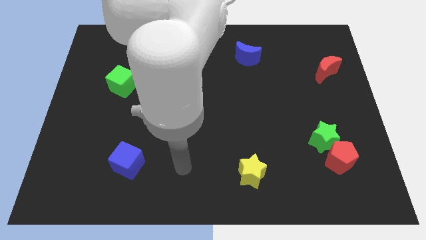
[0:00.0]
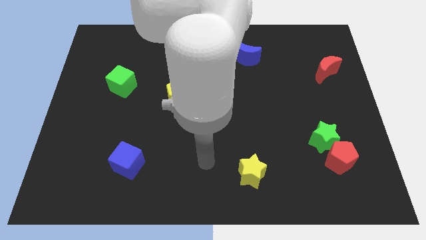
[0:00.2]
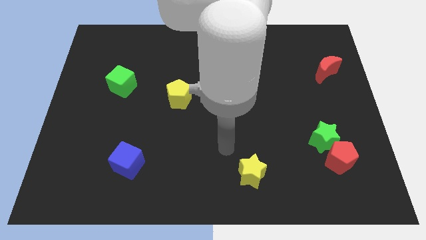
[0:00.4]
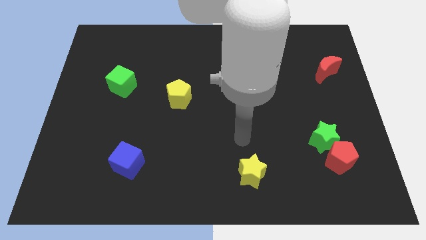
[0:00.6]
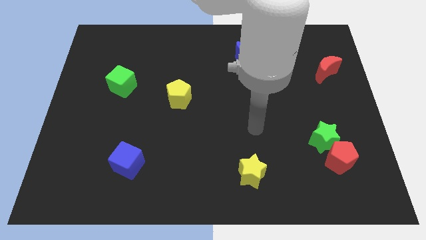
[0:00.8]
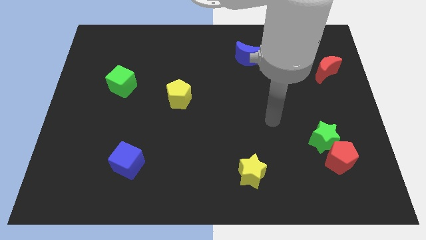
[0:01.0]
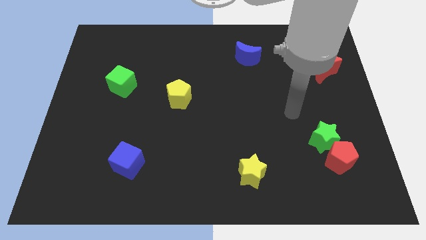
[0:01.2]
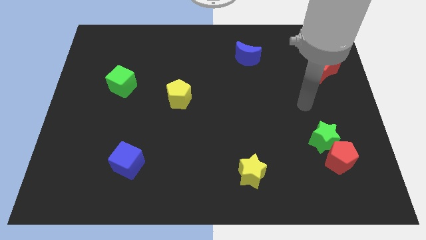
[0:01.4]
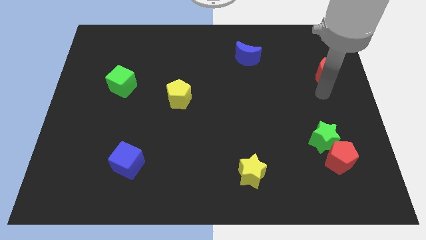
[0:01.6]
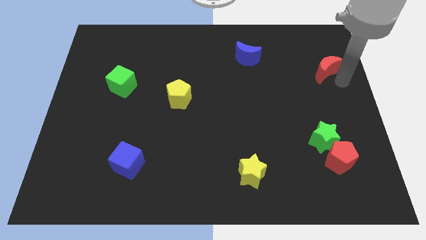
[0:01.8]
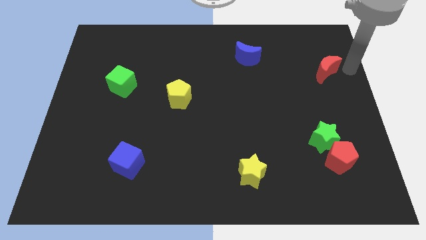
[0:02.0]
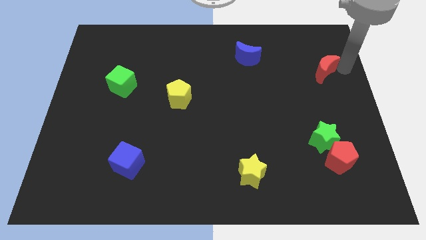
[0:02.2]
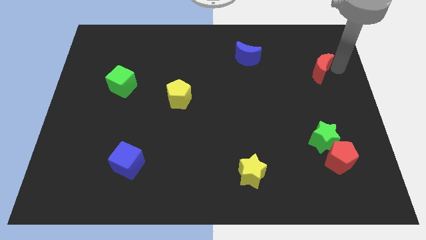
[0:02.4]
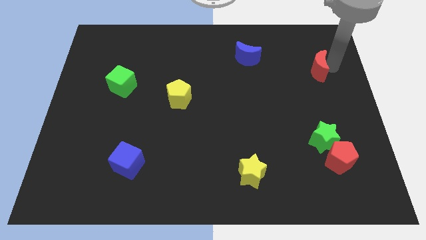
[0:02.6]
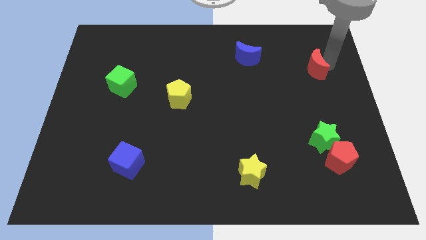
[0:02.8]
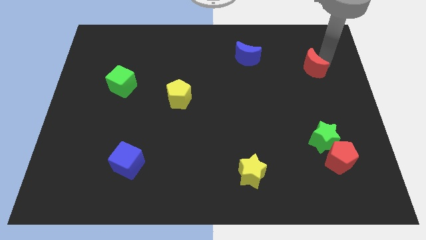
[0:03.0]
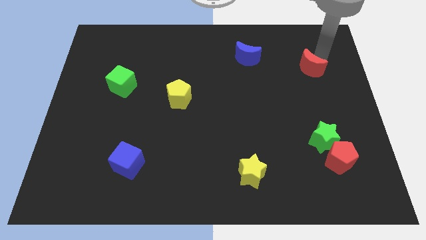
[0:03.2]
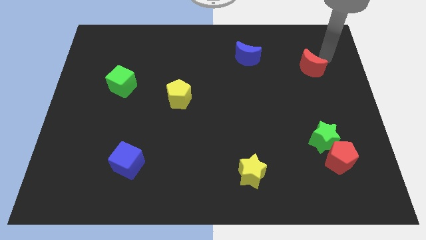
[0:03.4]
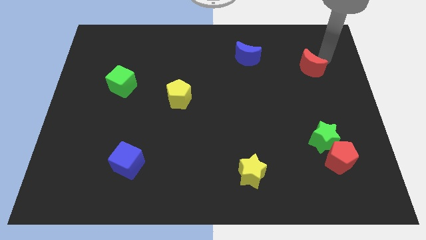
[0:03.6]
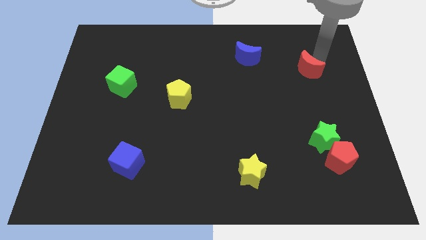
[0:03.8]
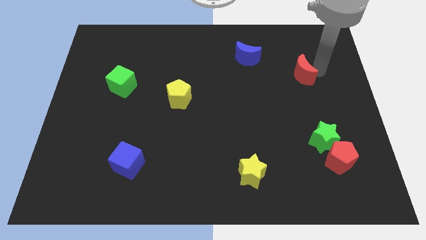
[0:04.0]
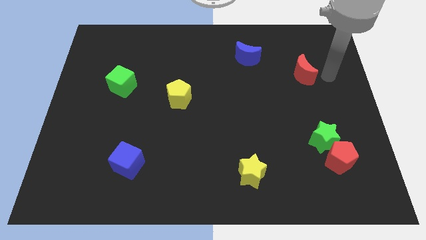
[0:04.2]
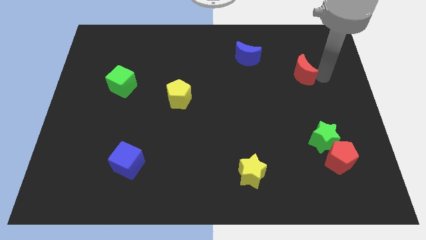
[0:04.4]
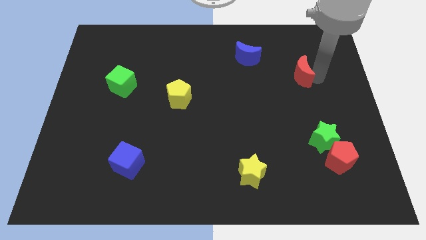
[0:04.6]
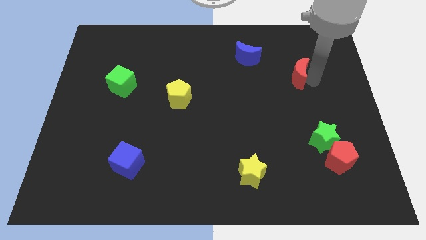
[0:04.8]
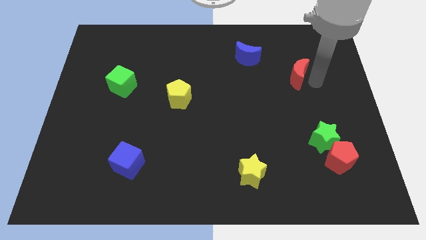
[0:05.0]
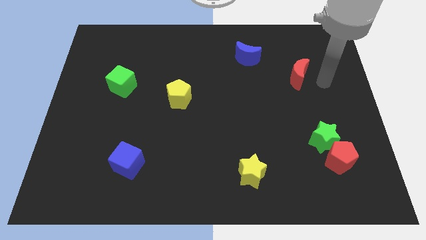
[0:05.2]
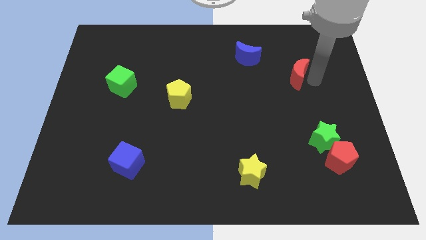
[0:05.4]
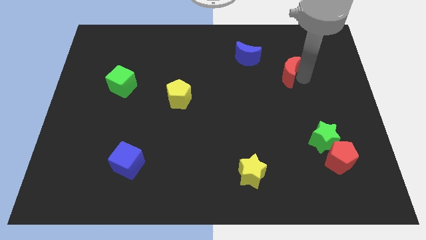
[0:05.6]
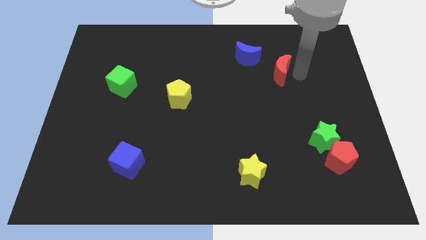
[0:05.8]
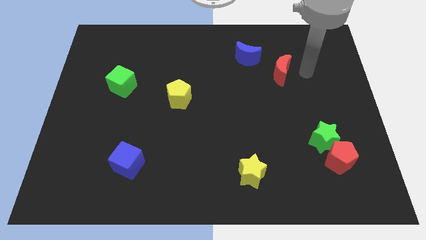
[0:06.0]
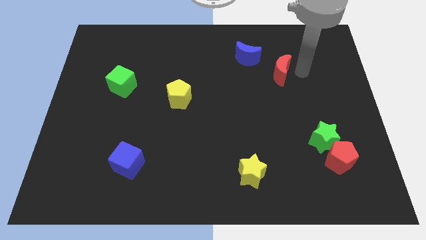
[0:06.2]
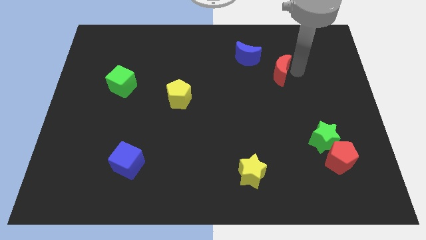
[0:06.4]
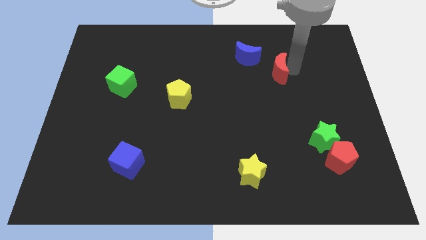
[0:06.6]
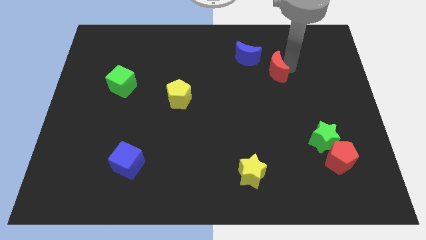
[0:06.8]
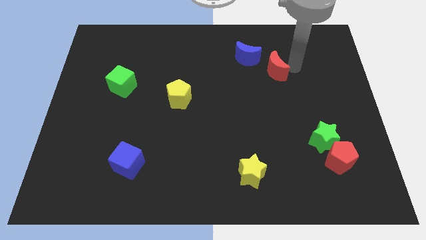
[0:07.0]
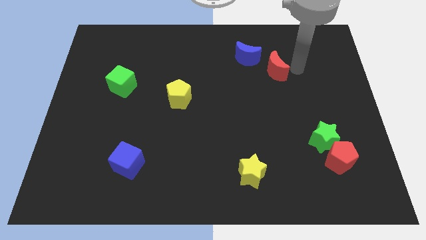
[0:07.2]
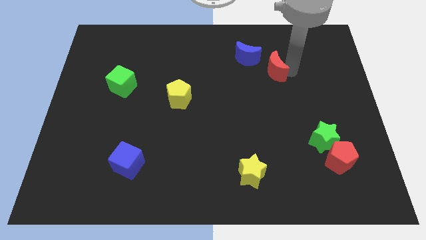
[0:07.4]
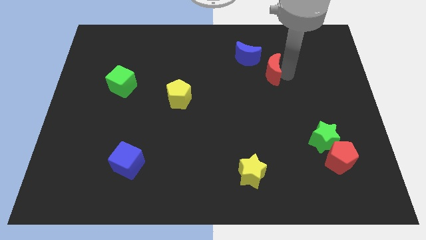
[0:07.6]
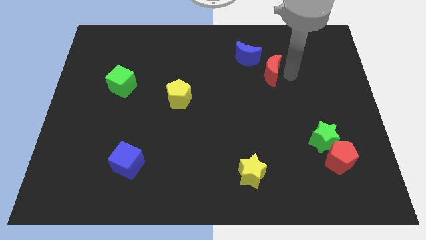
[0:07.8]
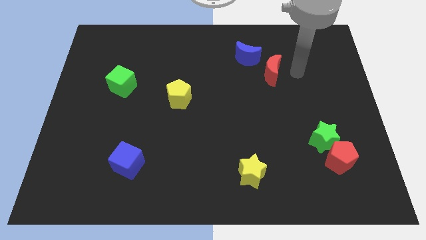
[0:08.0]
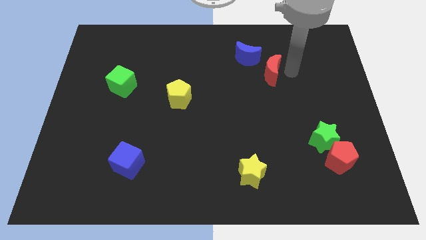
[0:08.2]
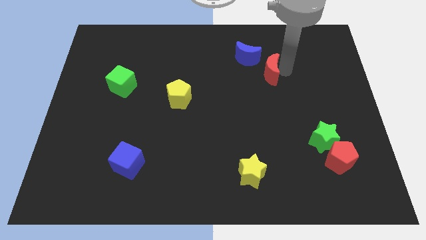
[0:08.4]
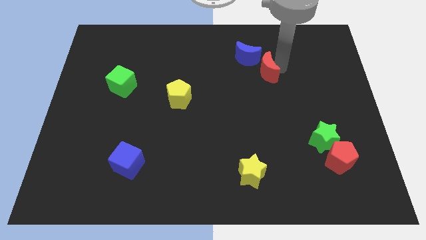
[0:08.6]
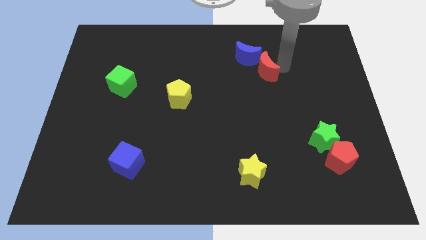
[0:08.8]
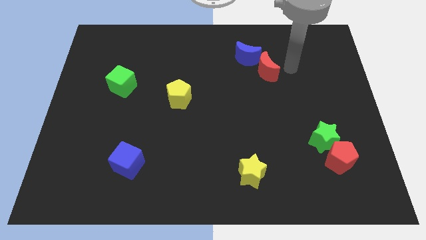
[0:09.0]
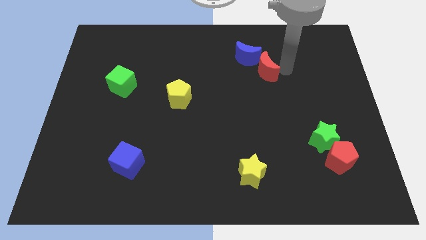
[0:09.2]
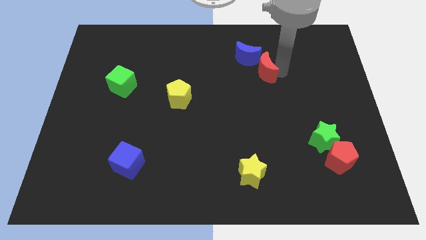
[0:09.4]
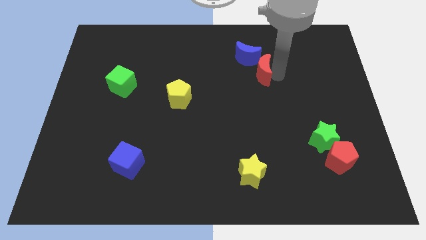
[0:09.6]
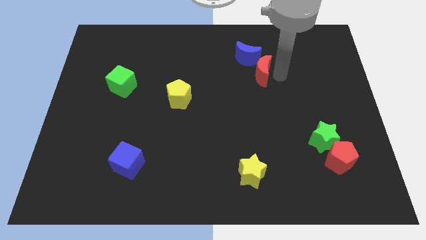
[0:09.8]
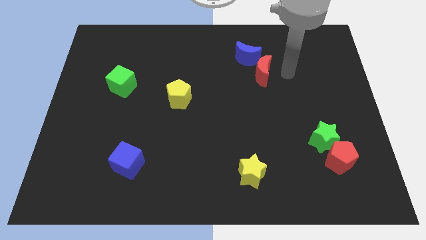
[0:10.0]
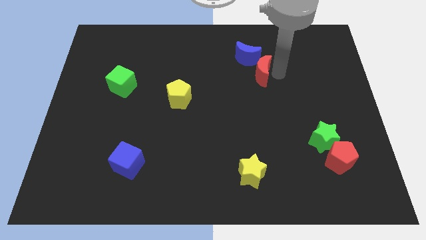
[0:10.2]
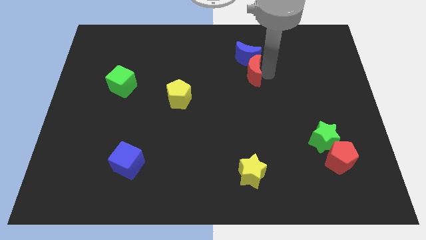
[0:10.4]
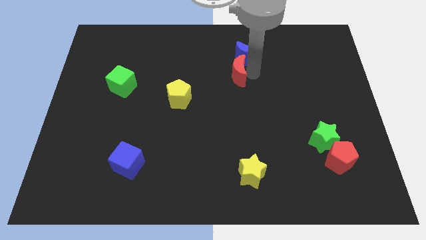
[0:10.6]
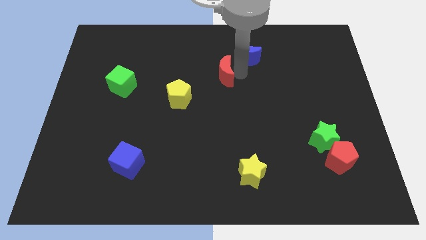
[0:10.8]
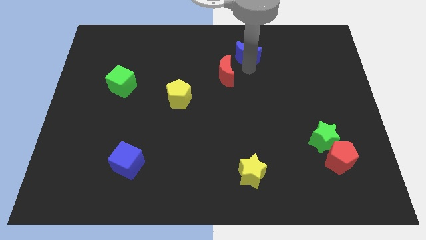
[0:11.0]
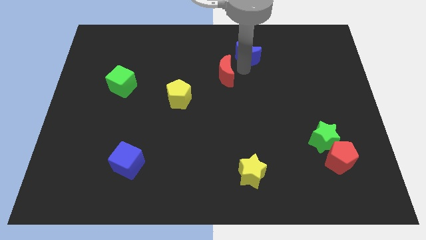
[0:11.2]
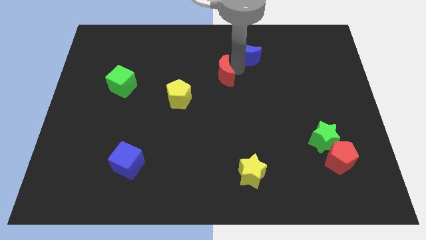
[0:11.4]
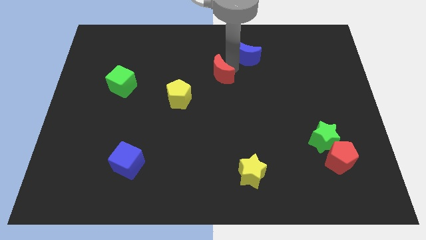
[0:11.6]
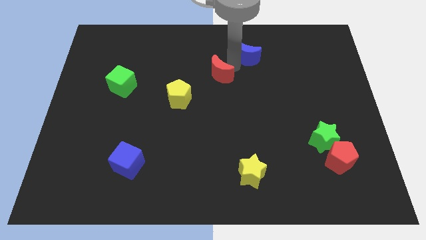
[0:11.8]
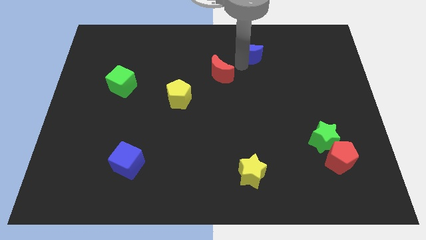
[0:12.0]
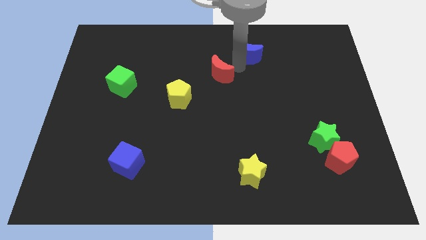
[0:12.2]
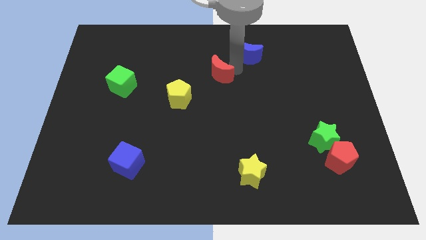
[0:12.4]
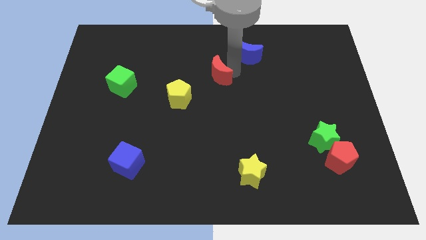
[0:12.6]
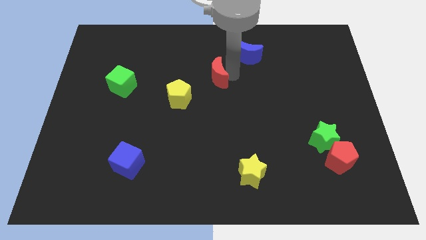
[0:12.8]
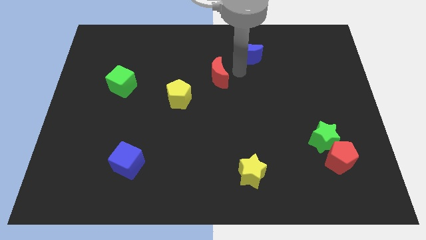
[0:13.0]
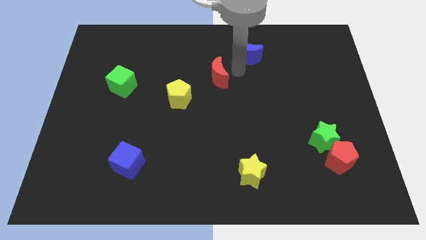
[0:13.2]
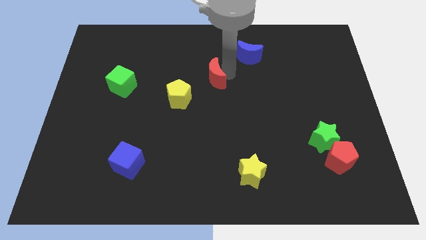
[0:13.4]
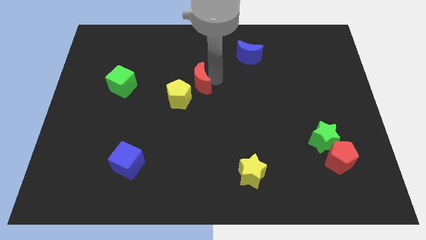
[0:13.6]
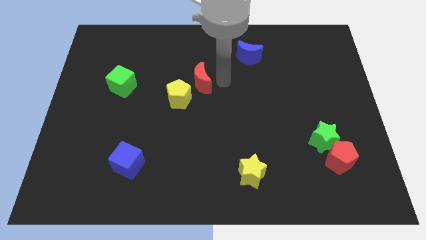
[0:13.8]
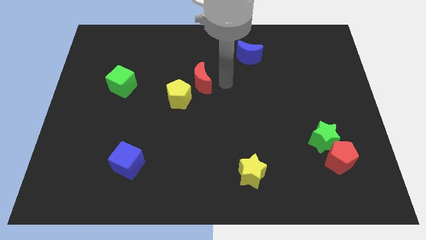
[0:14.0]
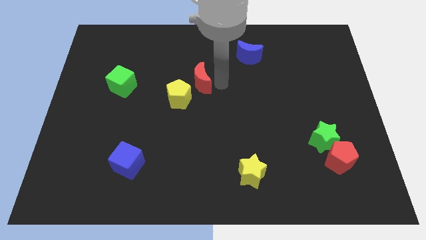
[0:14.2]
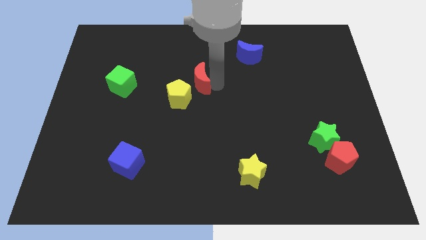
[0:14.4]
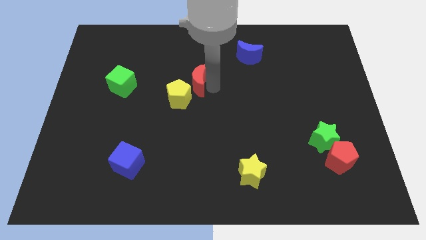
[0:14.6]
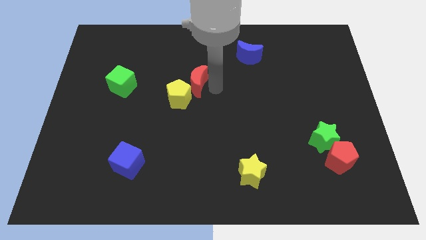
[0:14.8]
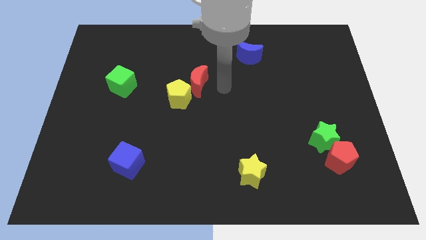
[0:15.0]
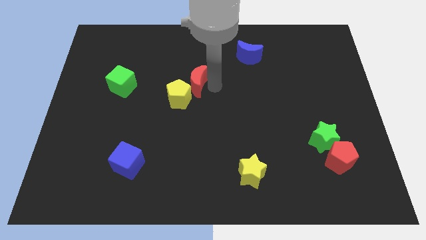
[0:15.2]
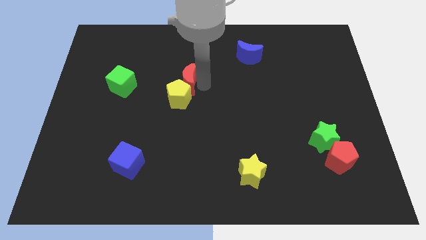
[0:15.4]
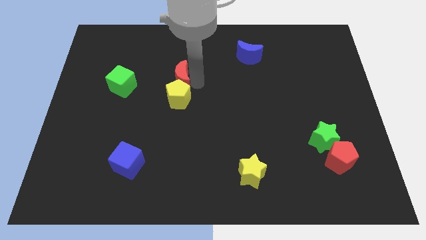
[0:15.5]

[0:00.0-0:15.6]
put the red moon diagonally up and to the left of the yellow pentagon
